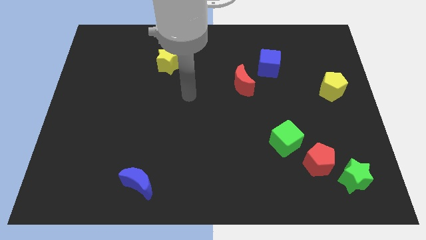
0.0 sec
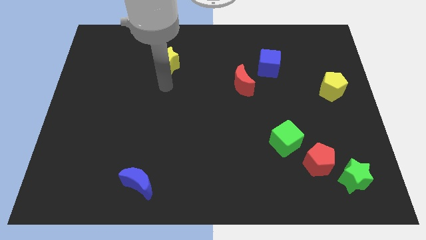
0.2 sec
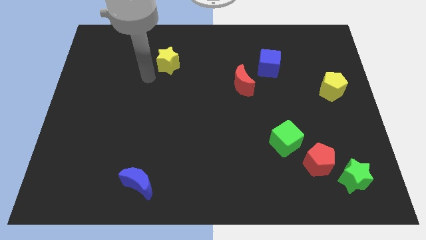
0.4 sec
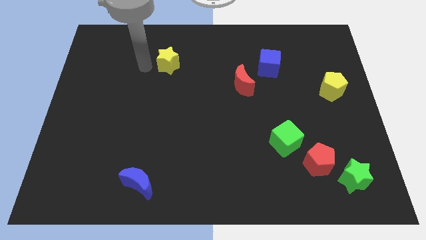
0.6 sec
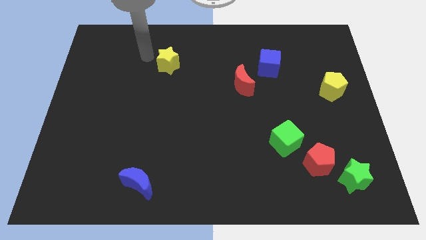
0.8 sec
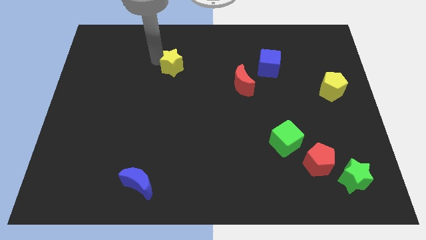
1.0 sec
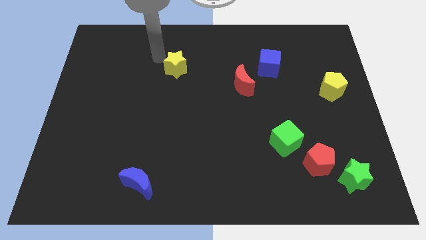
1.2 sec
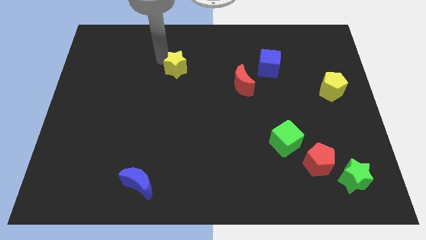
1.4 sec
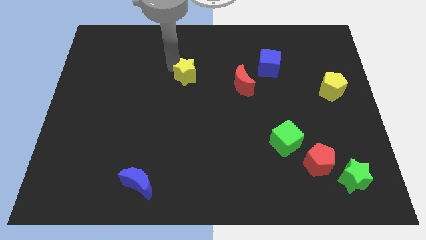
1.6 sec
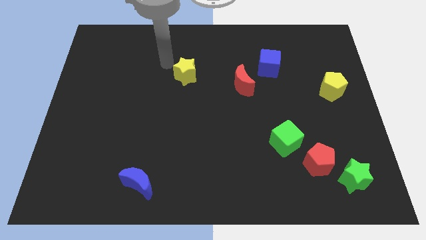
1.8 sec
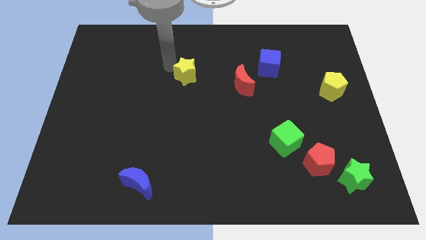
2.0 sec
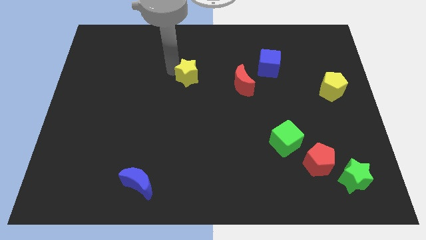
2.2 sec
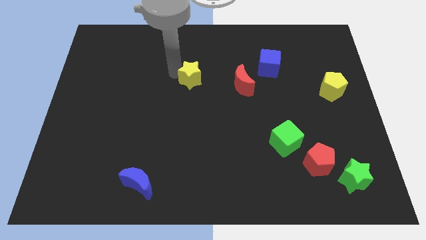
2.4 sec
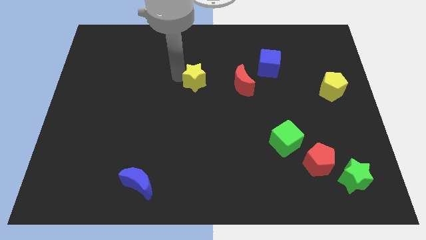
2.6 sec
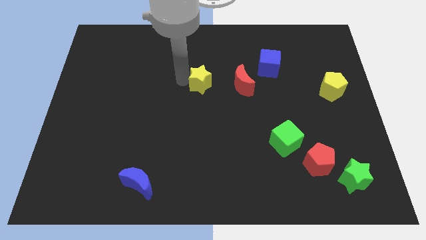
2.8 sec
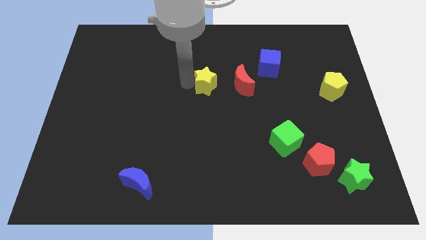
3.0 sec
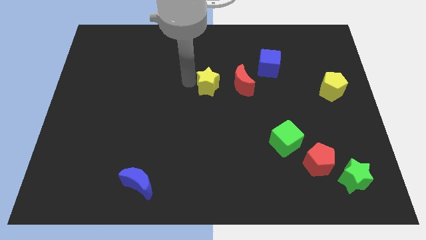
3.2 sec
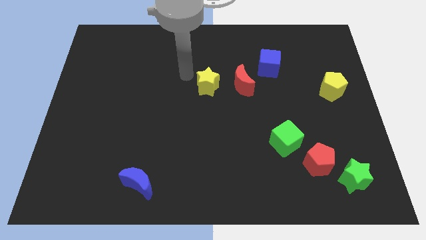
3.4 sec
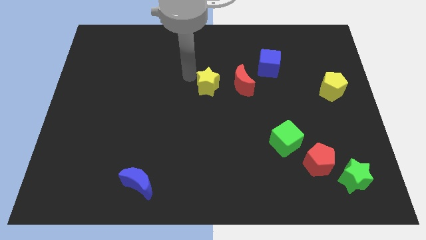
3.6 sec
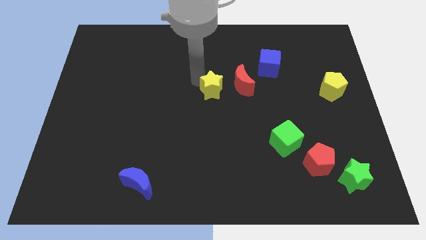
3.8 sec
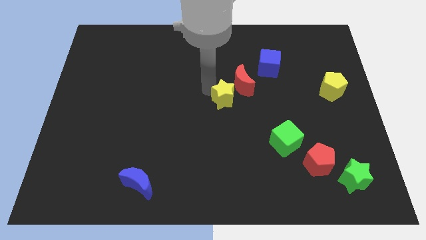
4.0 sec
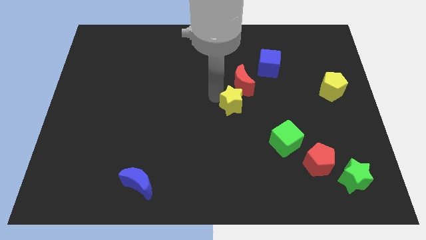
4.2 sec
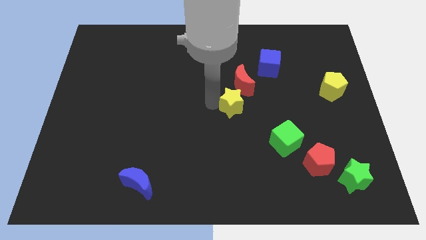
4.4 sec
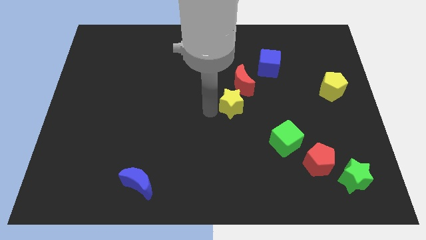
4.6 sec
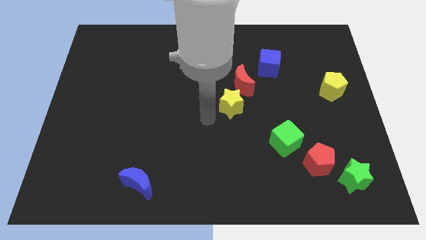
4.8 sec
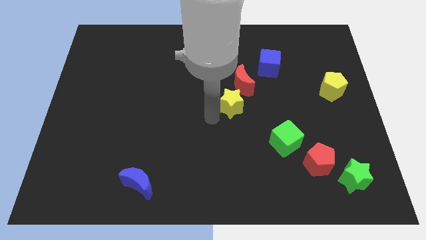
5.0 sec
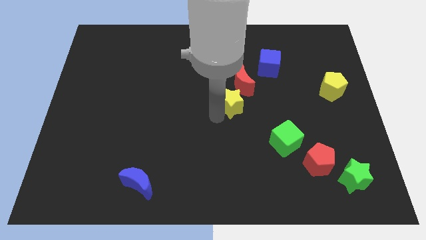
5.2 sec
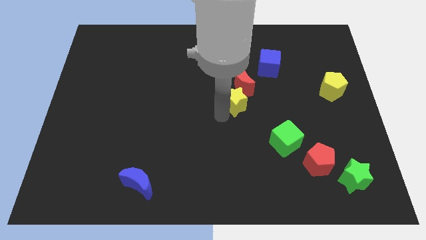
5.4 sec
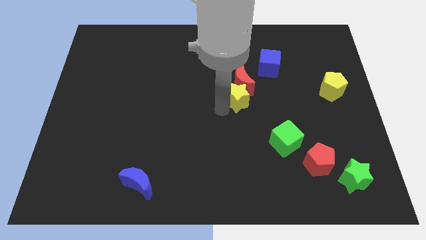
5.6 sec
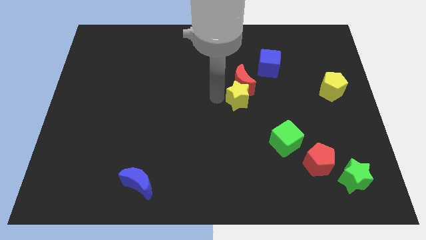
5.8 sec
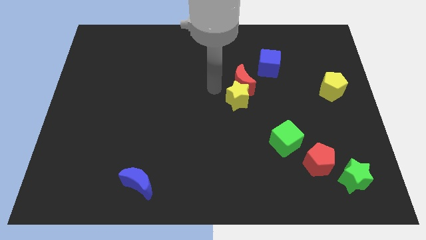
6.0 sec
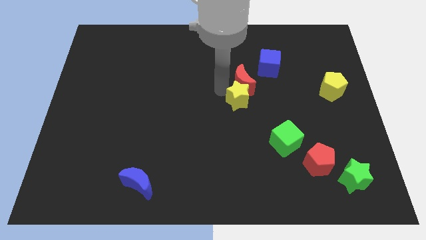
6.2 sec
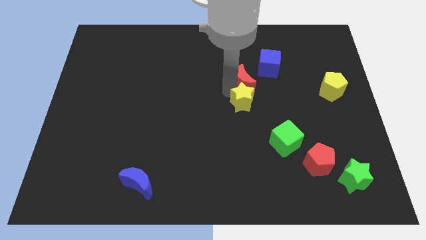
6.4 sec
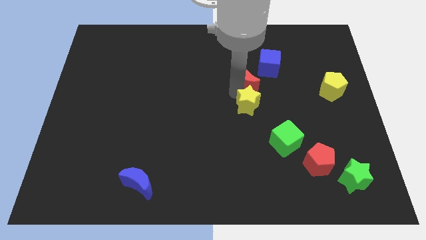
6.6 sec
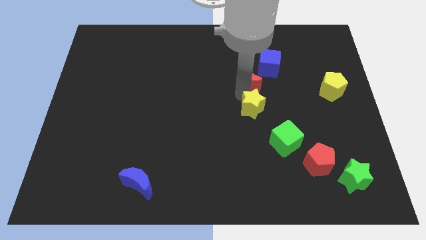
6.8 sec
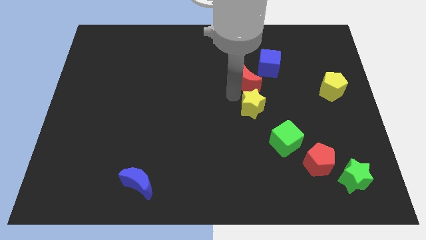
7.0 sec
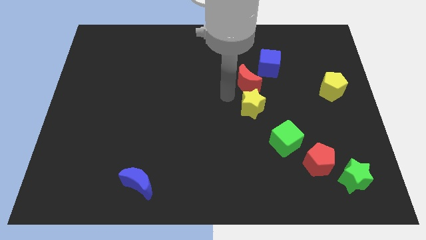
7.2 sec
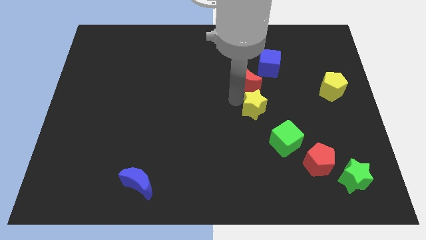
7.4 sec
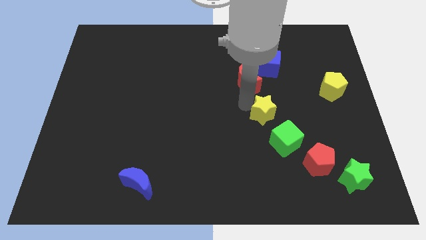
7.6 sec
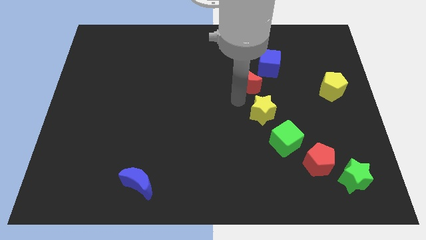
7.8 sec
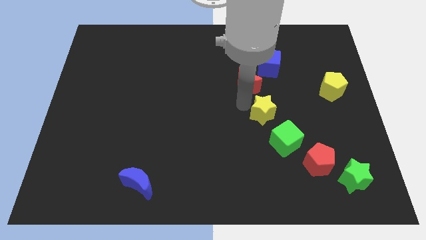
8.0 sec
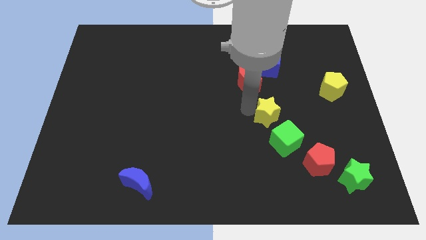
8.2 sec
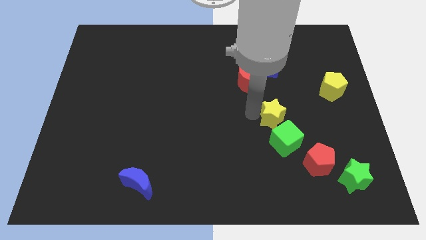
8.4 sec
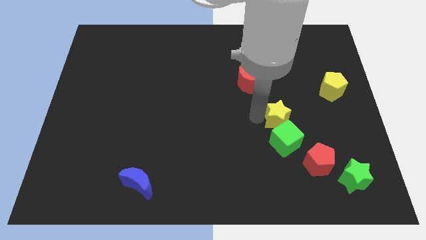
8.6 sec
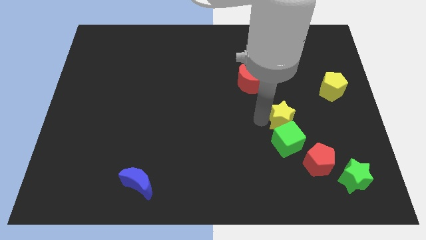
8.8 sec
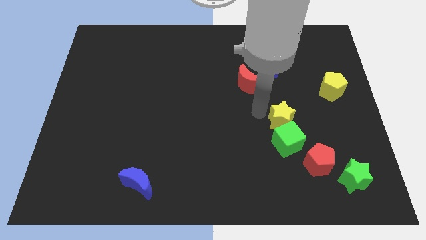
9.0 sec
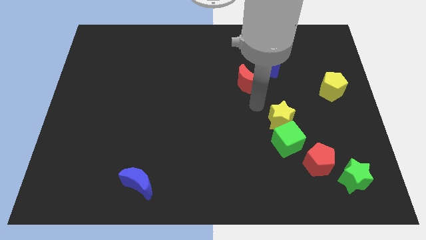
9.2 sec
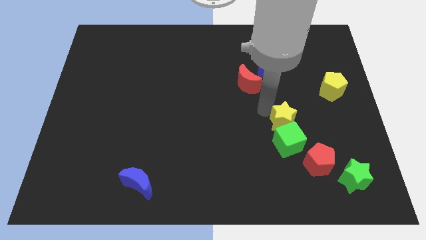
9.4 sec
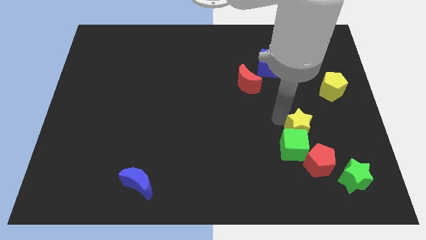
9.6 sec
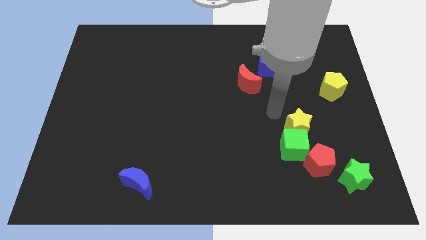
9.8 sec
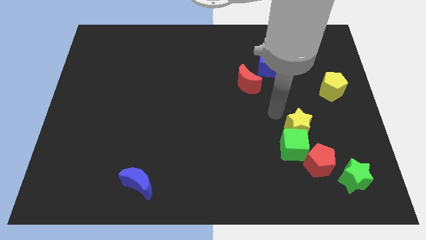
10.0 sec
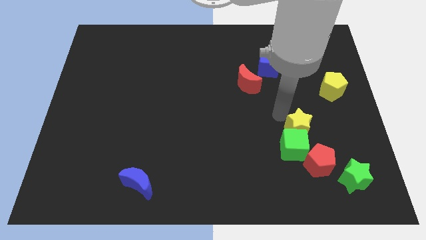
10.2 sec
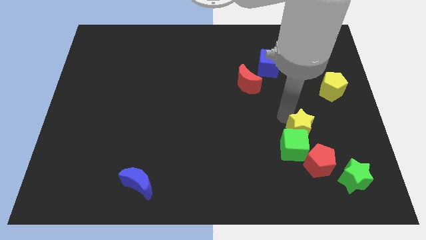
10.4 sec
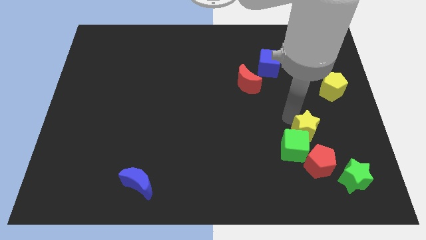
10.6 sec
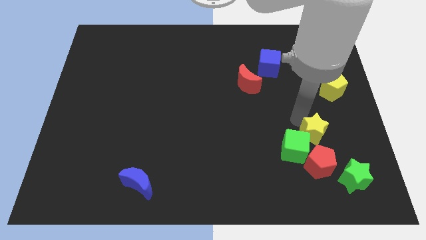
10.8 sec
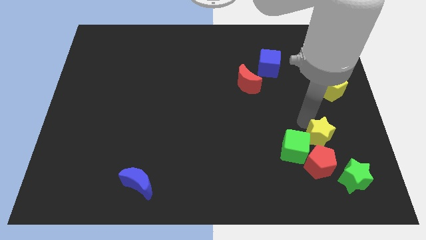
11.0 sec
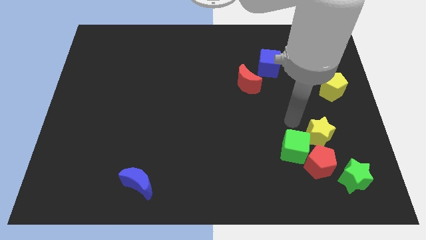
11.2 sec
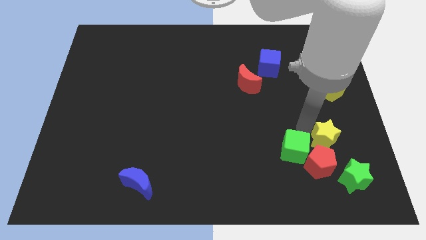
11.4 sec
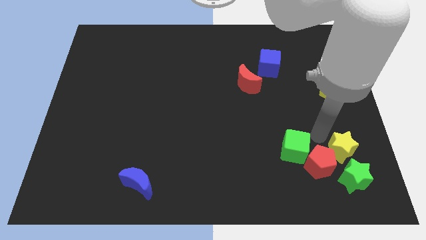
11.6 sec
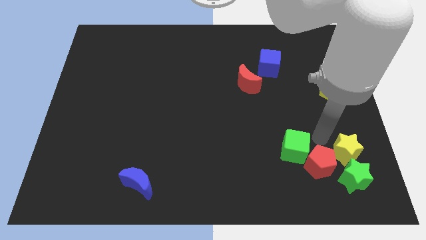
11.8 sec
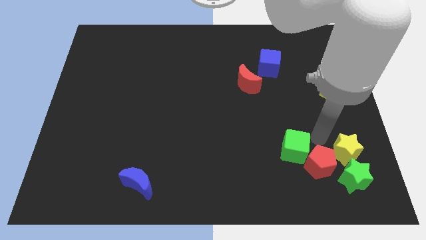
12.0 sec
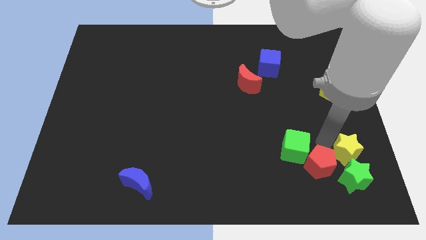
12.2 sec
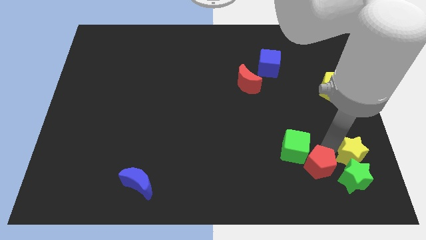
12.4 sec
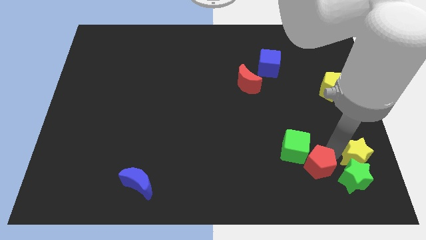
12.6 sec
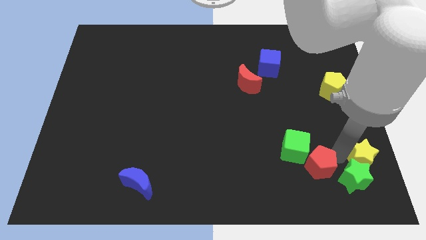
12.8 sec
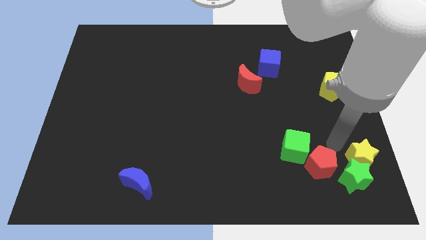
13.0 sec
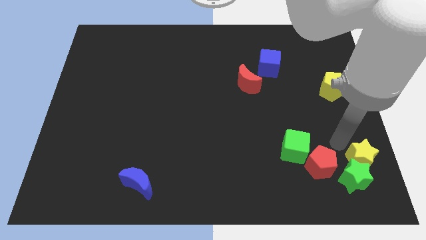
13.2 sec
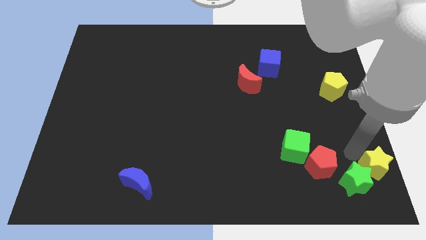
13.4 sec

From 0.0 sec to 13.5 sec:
slide the yellow star to the lower right corner

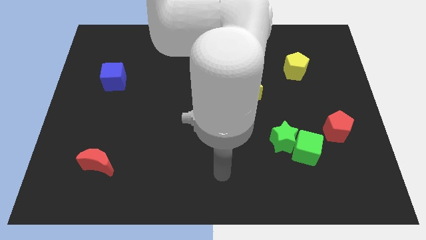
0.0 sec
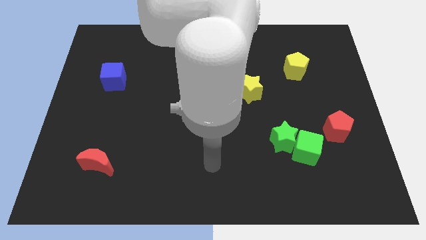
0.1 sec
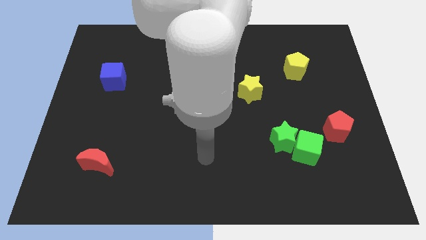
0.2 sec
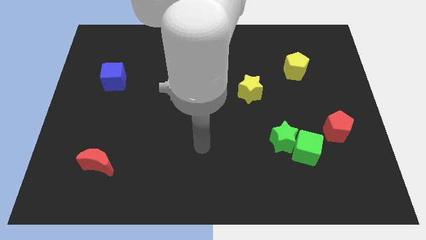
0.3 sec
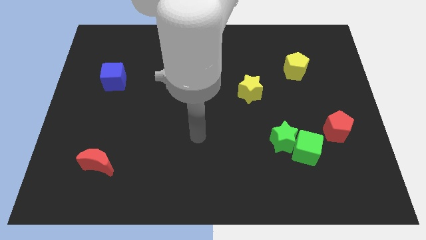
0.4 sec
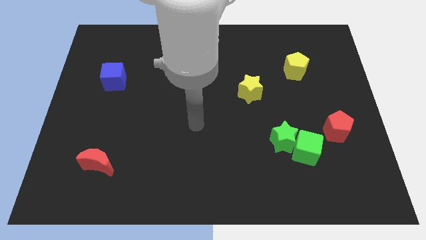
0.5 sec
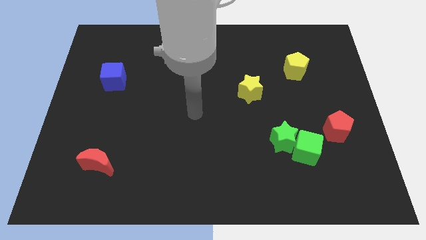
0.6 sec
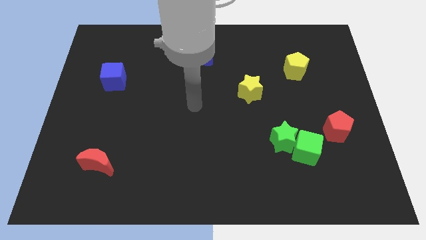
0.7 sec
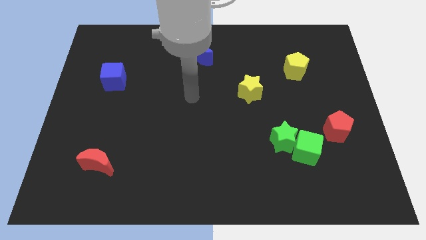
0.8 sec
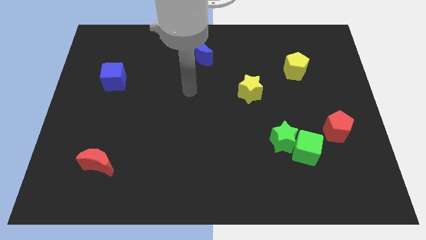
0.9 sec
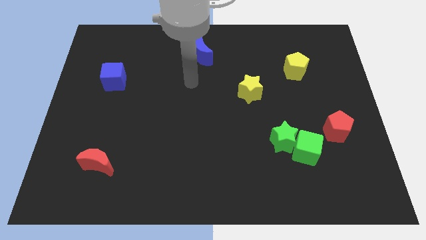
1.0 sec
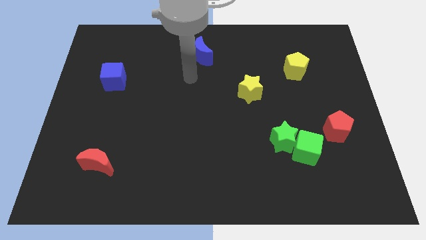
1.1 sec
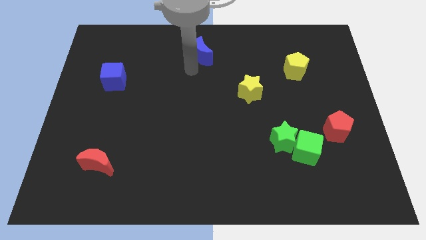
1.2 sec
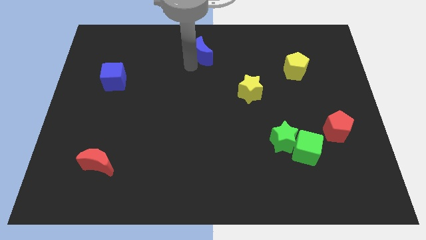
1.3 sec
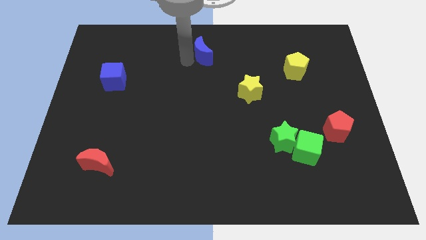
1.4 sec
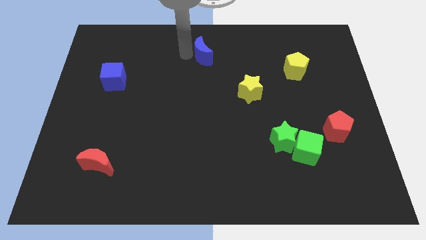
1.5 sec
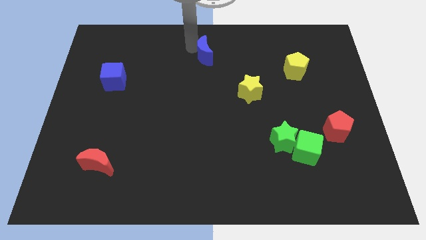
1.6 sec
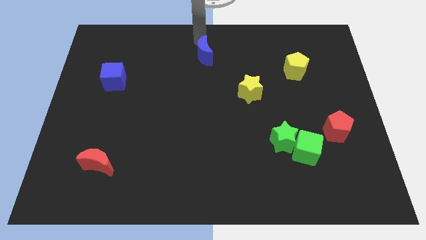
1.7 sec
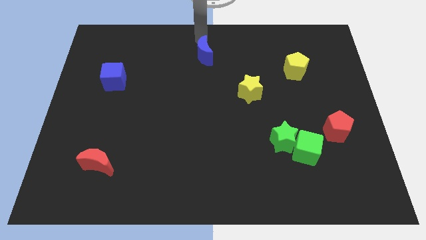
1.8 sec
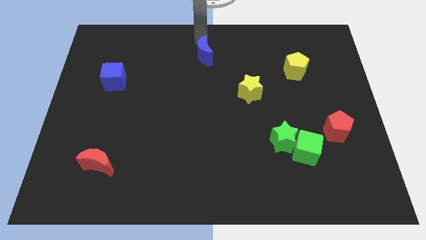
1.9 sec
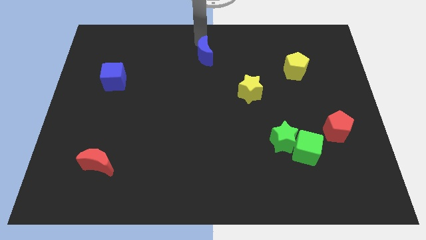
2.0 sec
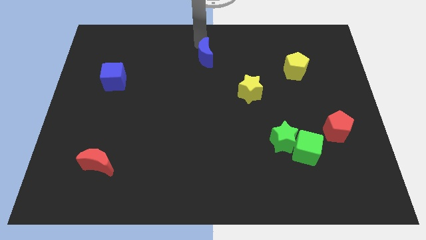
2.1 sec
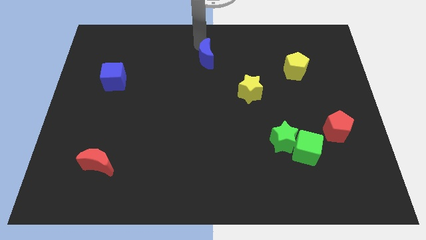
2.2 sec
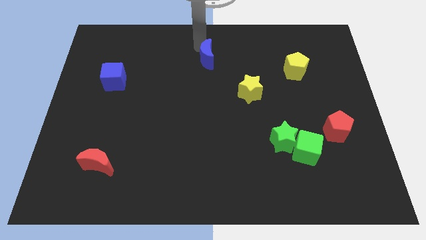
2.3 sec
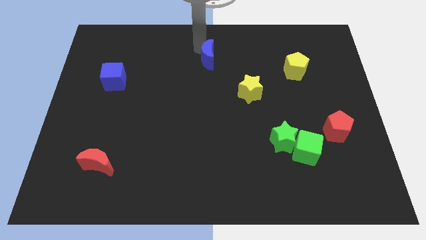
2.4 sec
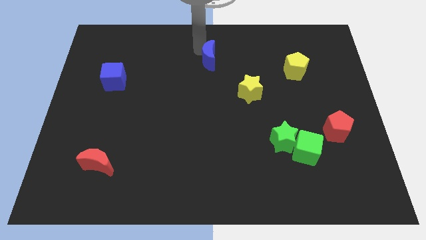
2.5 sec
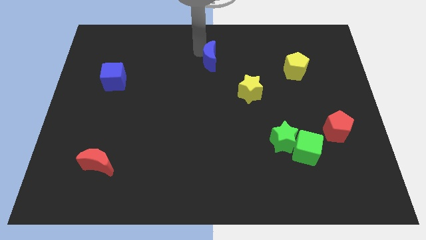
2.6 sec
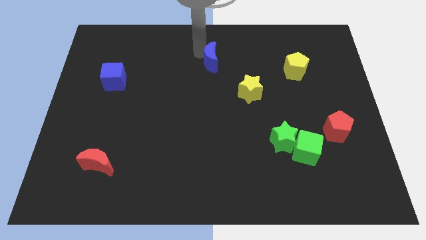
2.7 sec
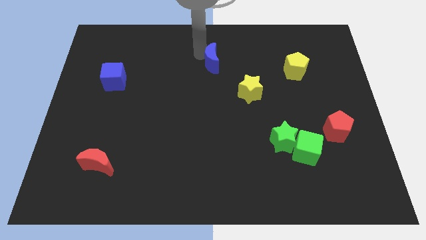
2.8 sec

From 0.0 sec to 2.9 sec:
slide the blue moon to the center of the board
